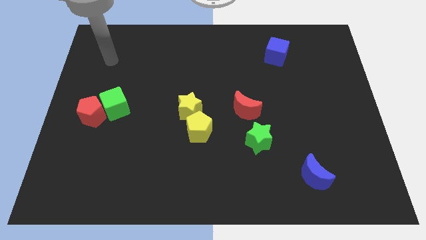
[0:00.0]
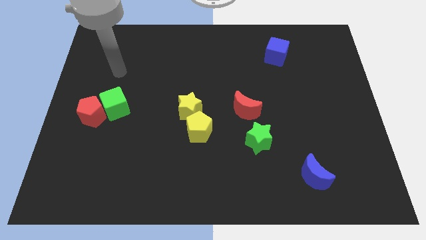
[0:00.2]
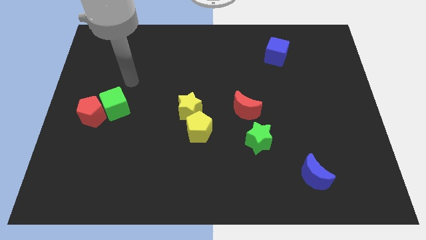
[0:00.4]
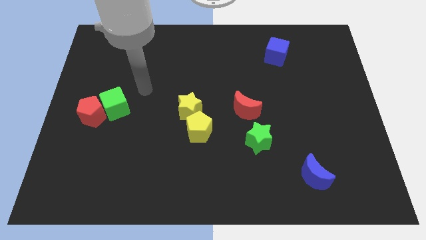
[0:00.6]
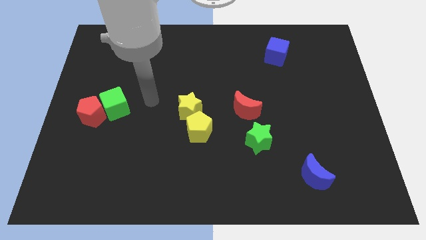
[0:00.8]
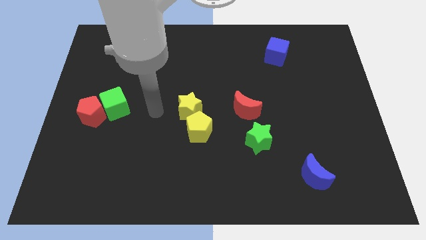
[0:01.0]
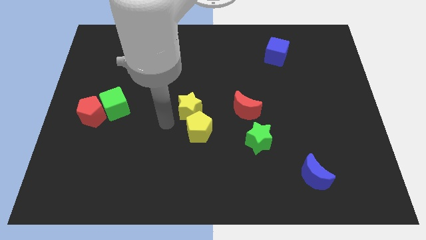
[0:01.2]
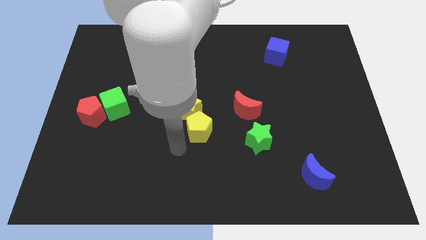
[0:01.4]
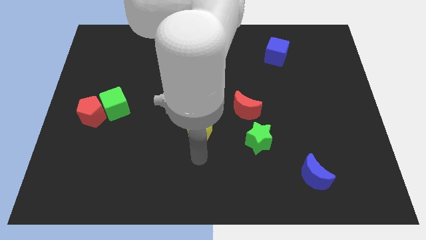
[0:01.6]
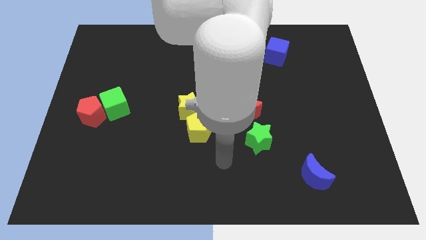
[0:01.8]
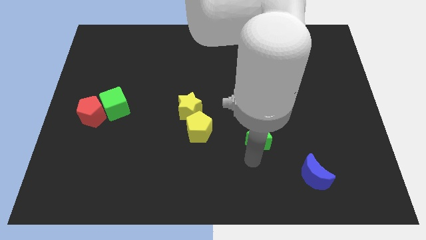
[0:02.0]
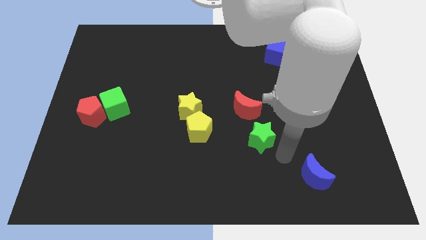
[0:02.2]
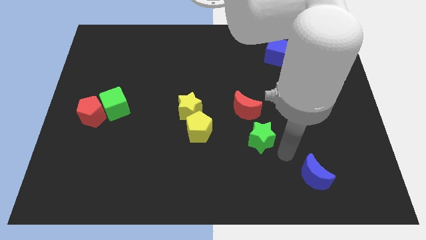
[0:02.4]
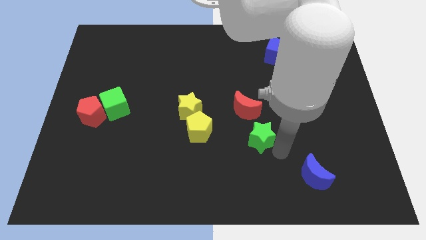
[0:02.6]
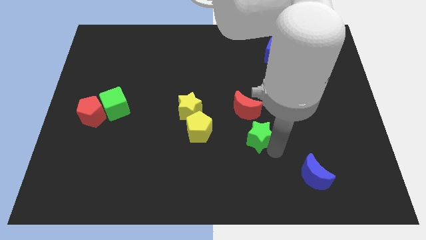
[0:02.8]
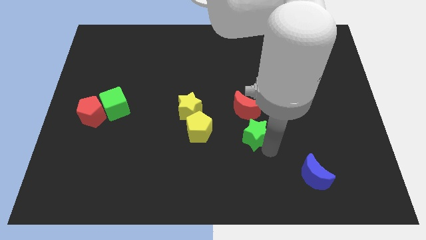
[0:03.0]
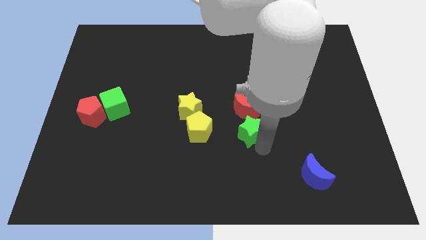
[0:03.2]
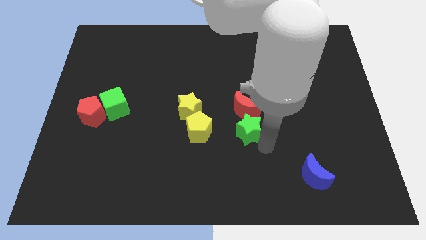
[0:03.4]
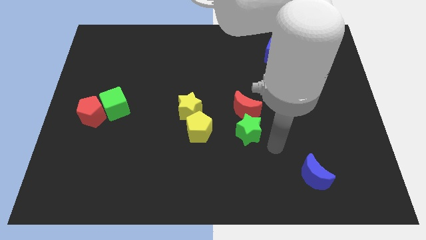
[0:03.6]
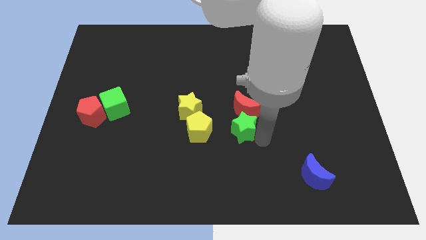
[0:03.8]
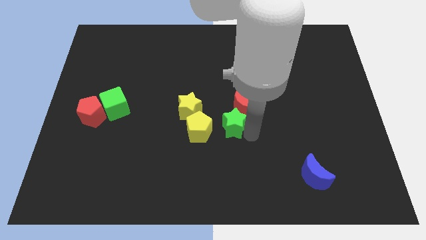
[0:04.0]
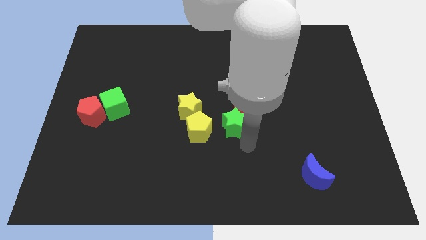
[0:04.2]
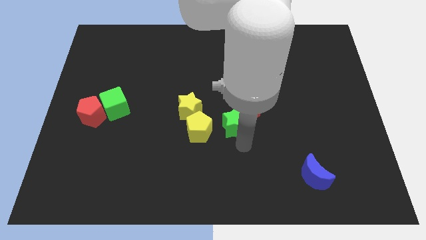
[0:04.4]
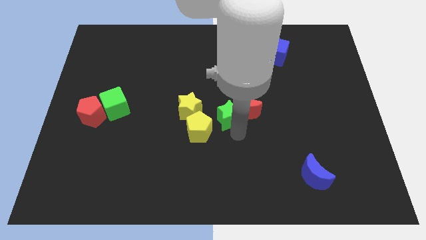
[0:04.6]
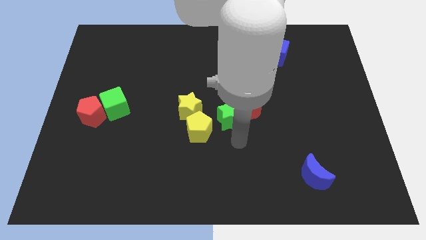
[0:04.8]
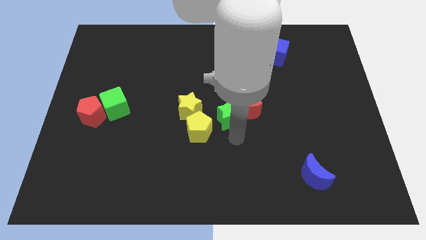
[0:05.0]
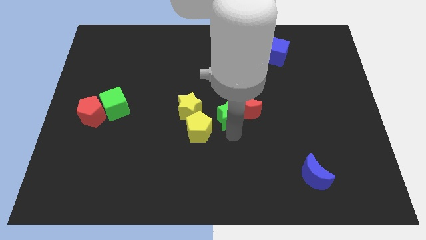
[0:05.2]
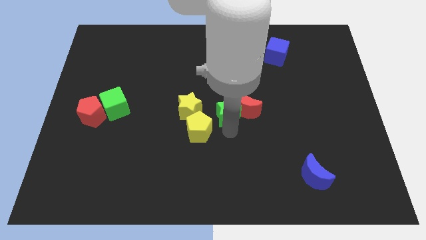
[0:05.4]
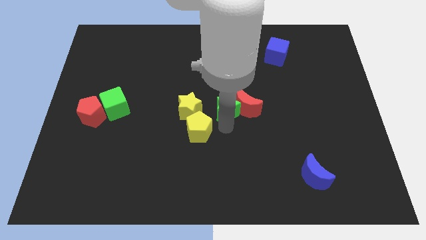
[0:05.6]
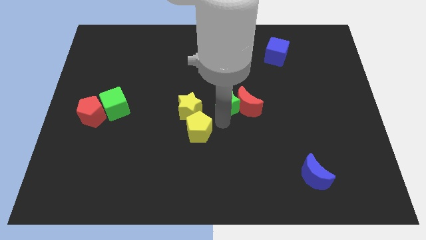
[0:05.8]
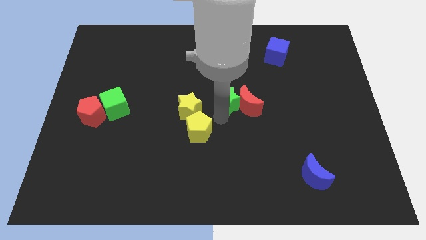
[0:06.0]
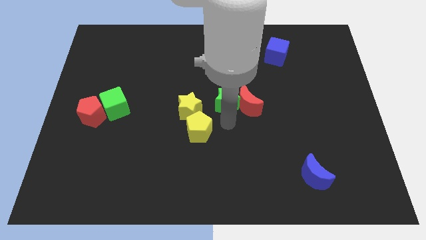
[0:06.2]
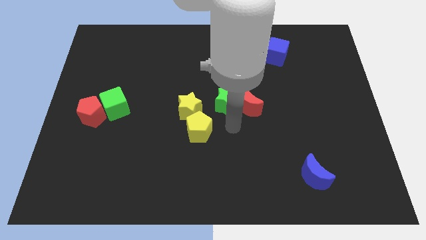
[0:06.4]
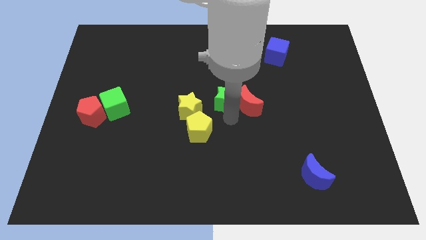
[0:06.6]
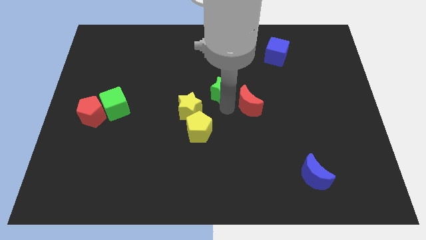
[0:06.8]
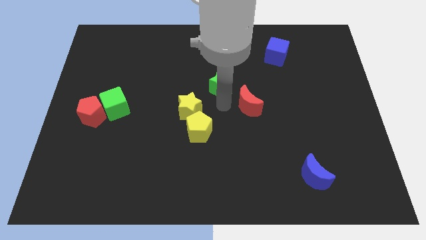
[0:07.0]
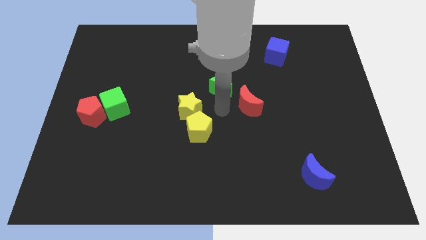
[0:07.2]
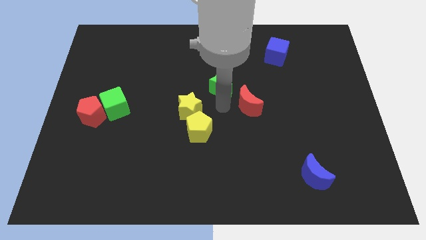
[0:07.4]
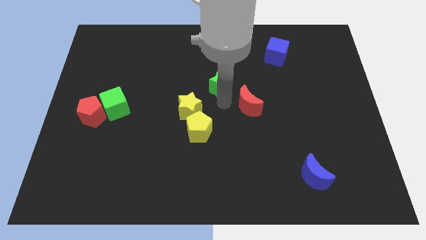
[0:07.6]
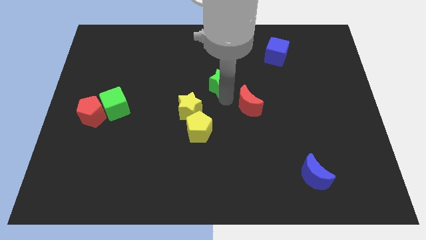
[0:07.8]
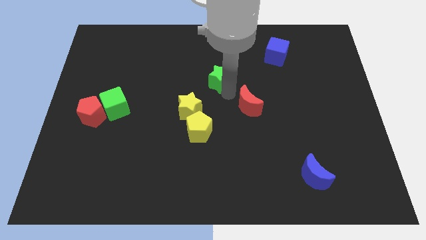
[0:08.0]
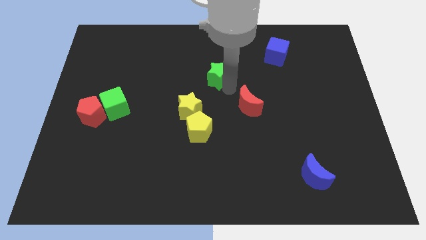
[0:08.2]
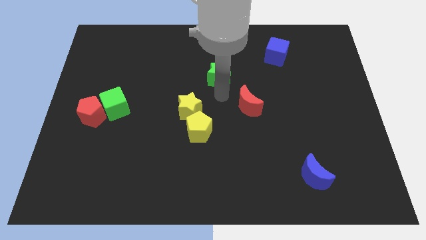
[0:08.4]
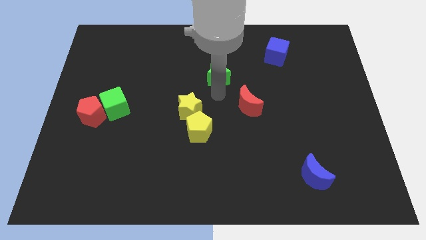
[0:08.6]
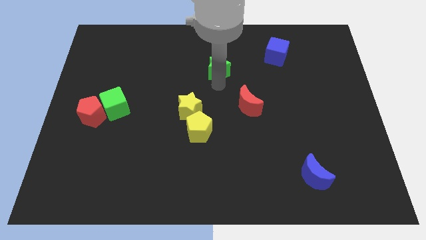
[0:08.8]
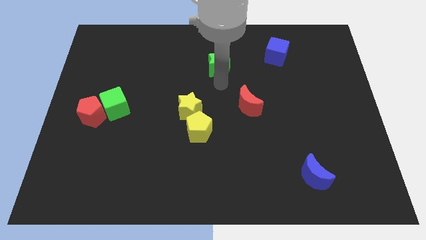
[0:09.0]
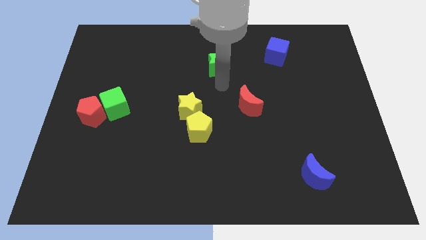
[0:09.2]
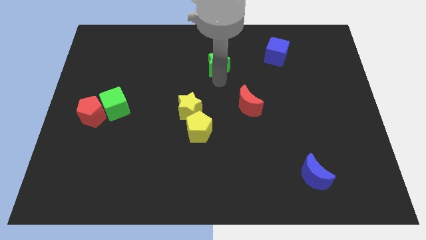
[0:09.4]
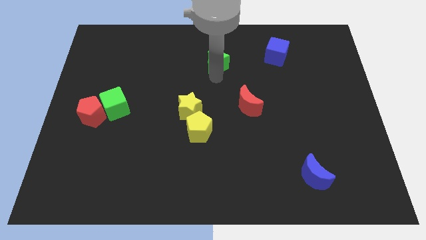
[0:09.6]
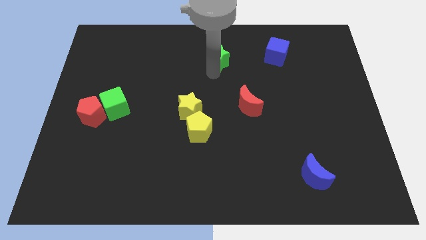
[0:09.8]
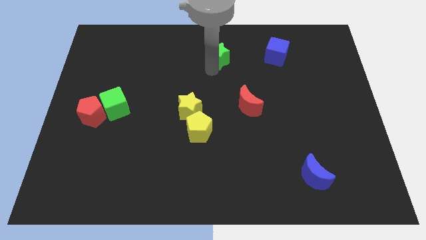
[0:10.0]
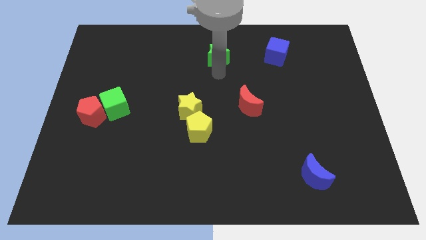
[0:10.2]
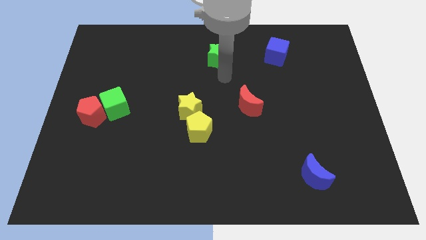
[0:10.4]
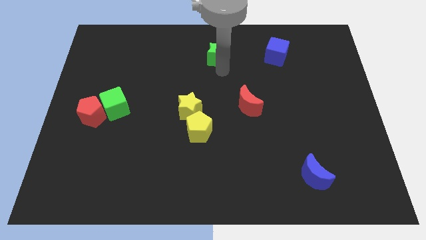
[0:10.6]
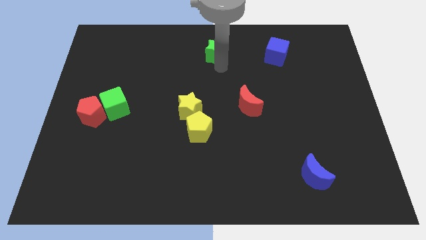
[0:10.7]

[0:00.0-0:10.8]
move the green star to the towards your base
